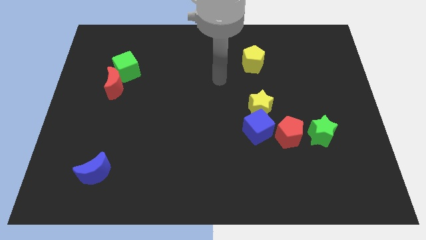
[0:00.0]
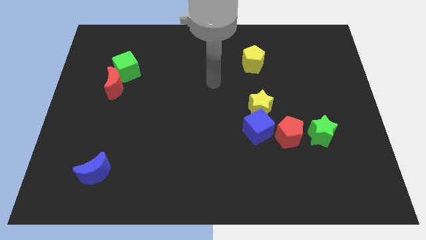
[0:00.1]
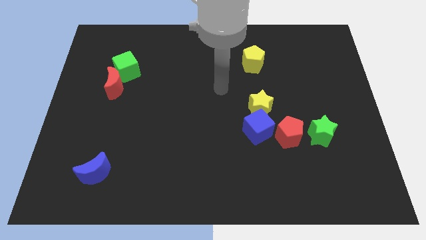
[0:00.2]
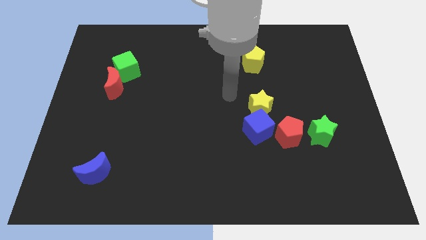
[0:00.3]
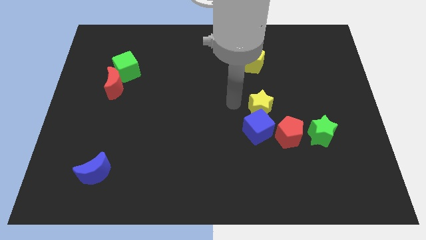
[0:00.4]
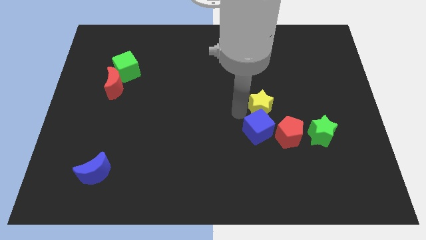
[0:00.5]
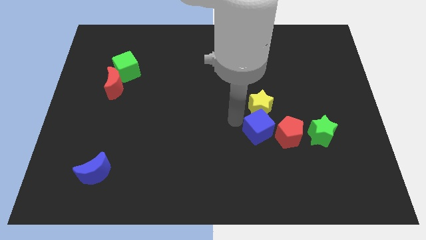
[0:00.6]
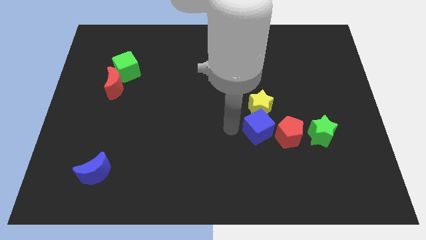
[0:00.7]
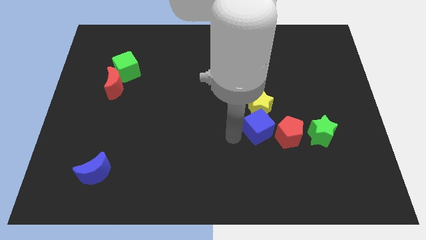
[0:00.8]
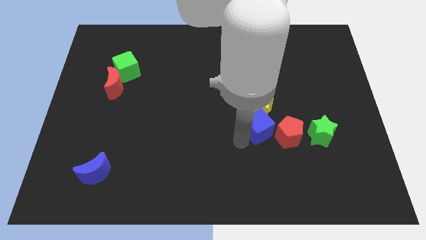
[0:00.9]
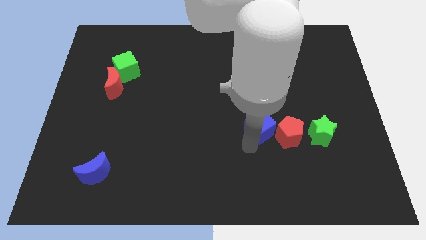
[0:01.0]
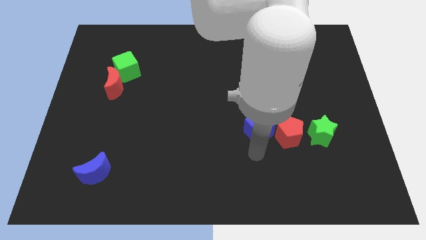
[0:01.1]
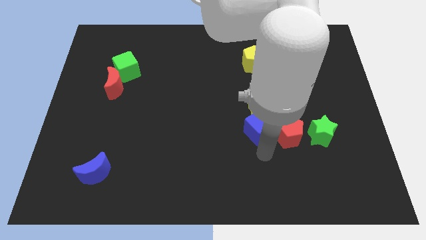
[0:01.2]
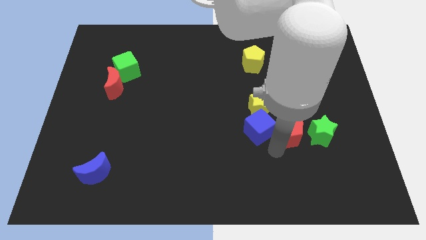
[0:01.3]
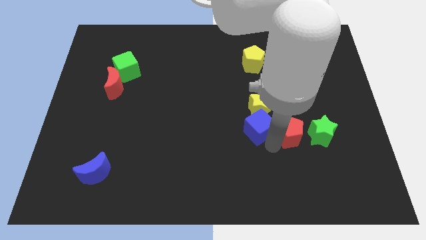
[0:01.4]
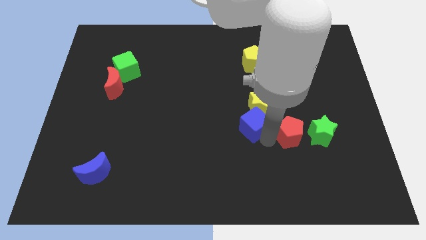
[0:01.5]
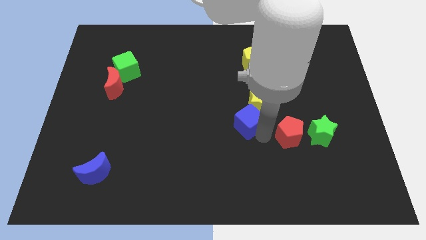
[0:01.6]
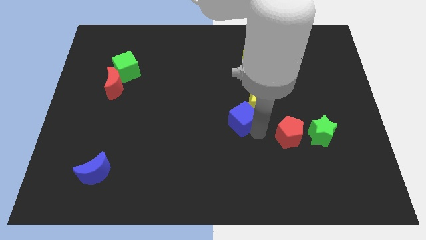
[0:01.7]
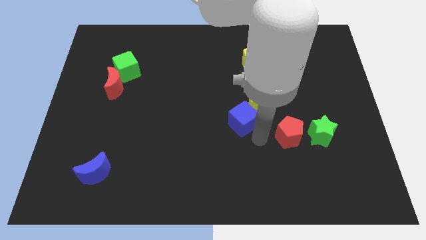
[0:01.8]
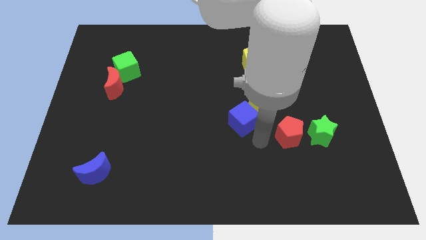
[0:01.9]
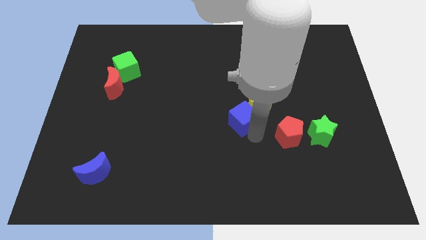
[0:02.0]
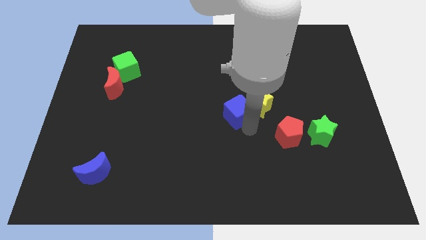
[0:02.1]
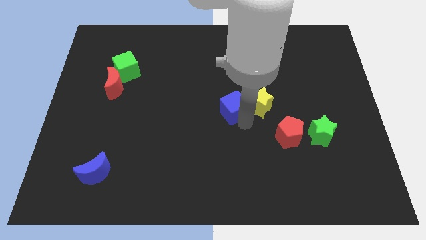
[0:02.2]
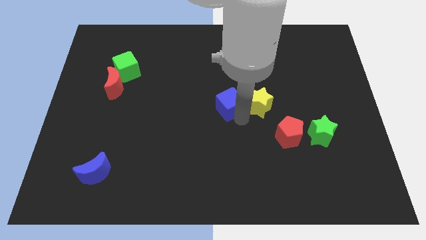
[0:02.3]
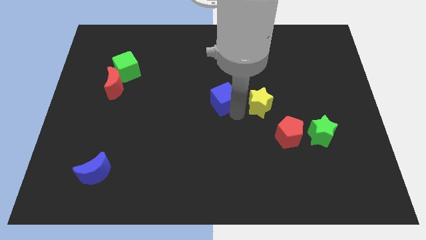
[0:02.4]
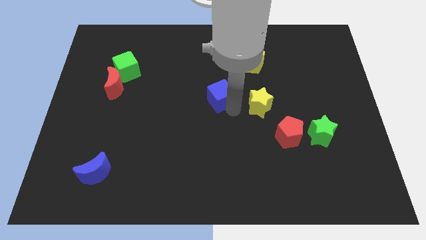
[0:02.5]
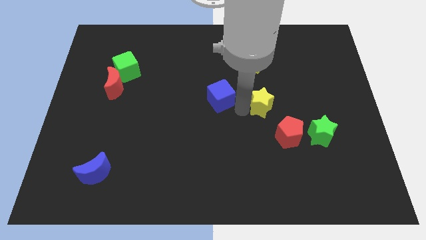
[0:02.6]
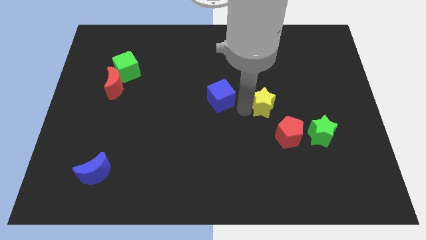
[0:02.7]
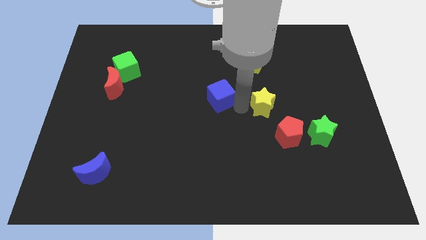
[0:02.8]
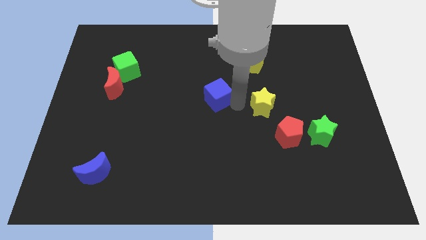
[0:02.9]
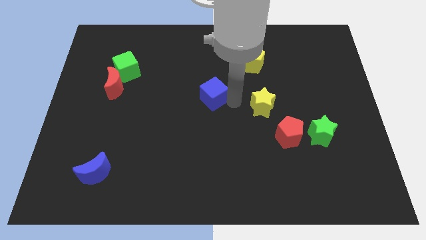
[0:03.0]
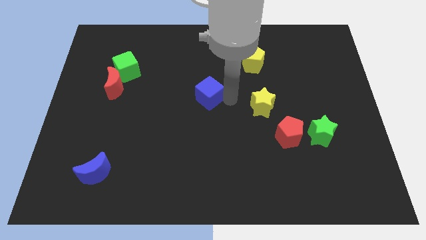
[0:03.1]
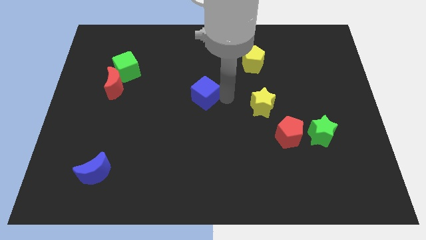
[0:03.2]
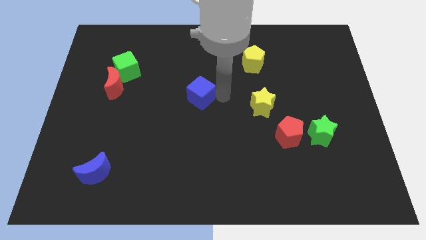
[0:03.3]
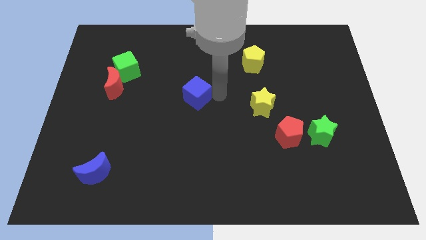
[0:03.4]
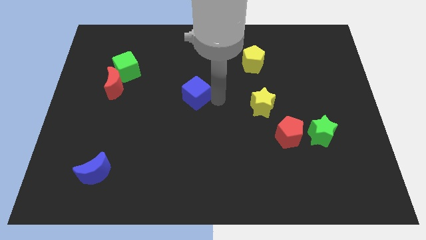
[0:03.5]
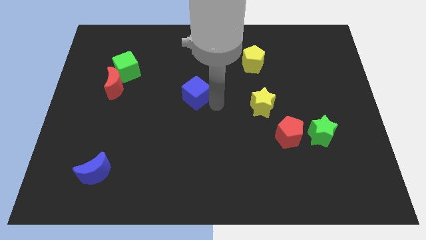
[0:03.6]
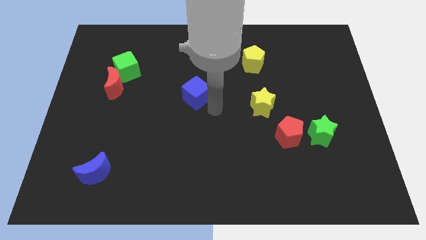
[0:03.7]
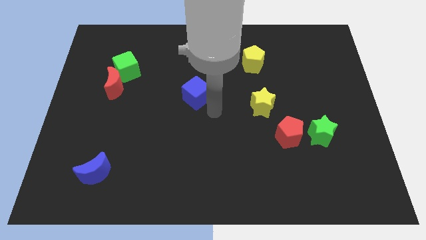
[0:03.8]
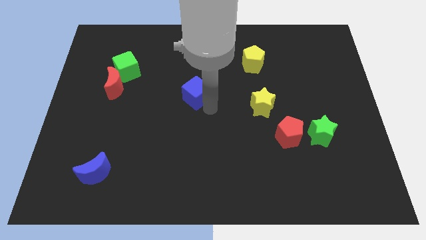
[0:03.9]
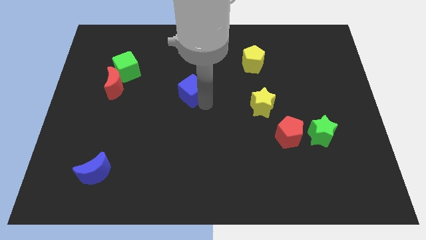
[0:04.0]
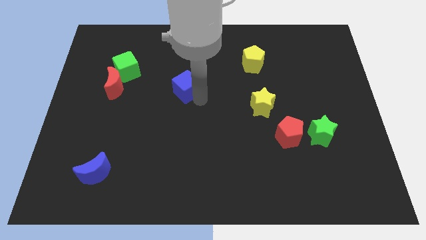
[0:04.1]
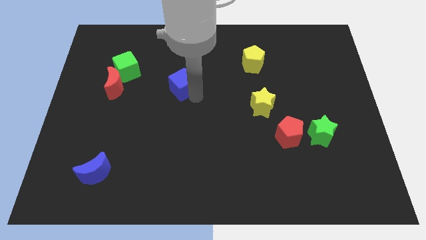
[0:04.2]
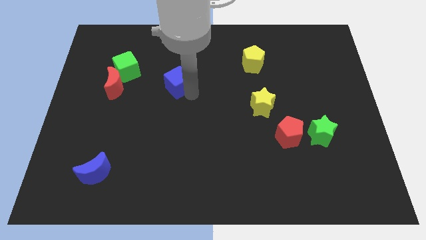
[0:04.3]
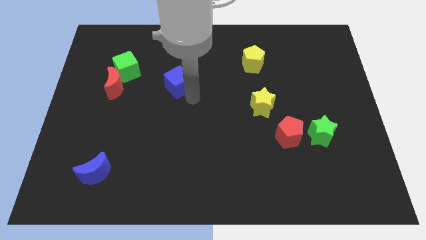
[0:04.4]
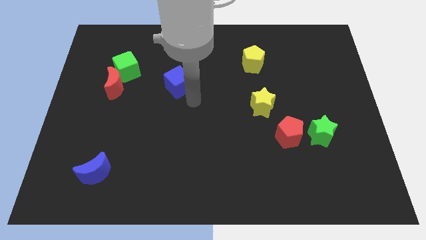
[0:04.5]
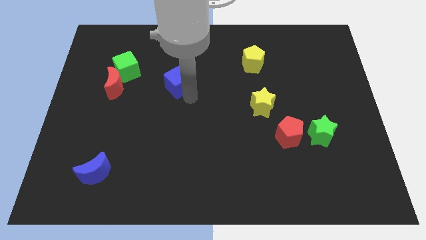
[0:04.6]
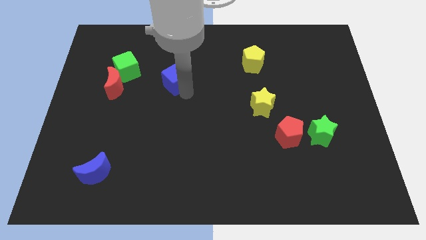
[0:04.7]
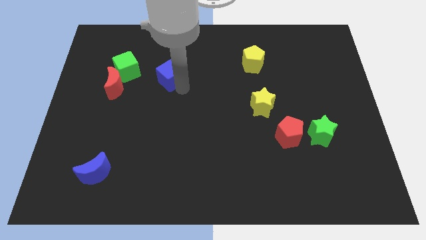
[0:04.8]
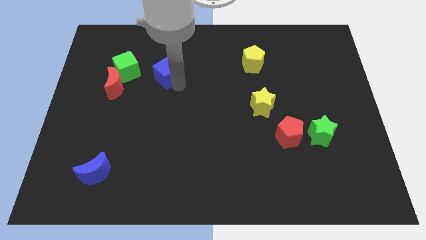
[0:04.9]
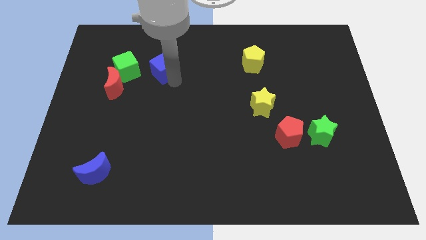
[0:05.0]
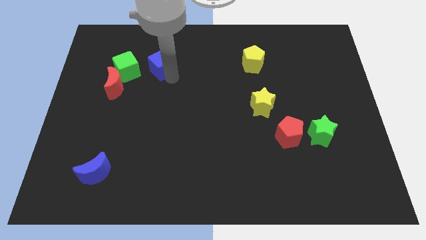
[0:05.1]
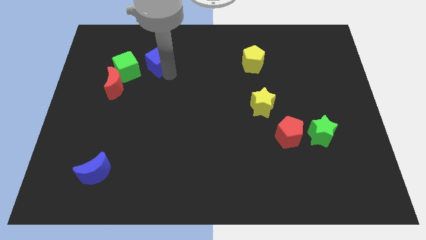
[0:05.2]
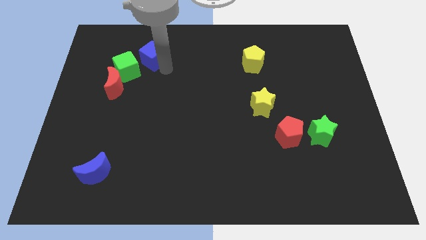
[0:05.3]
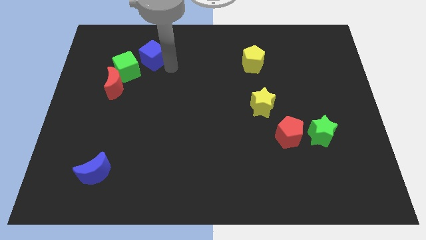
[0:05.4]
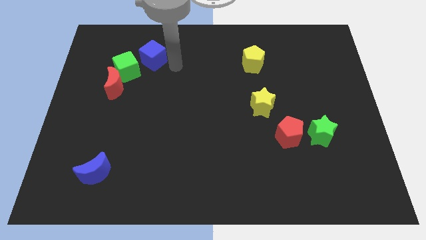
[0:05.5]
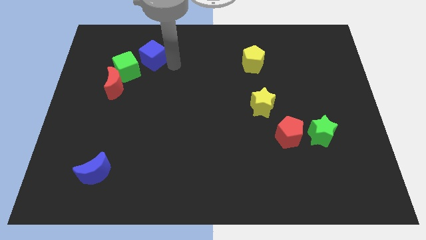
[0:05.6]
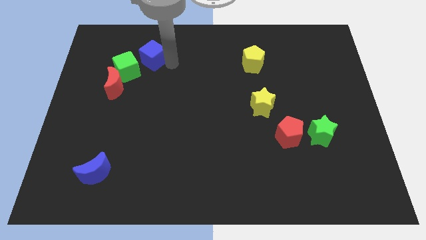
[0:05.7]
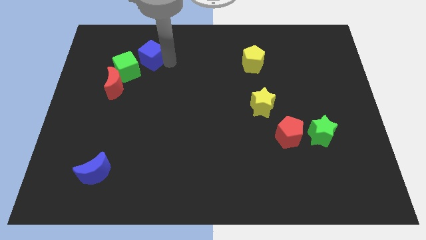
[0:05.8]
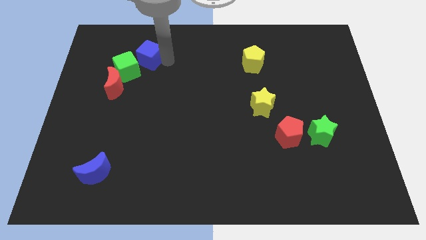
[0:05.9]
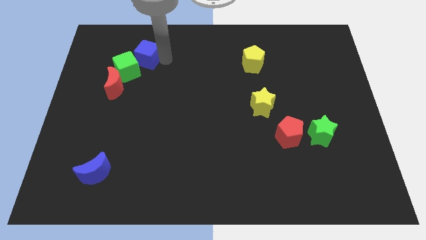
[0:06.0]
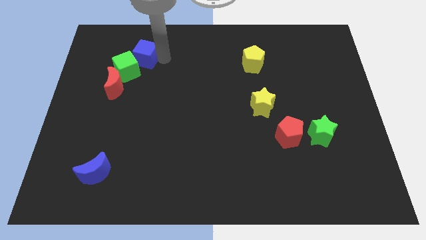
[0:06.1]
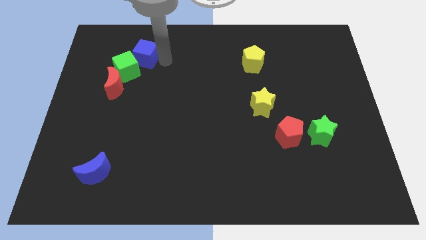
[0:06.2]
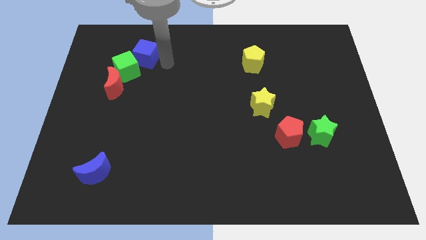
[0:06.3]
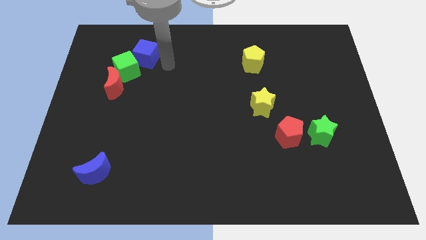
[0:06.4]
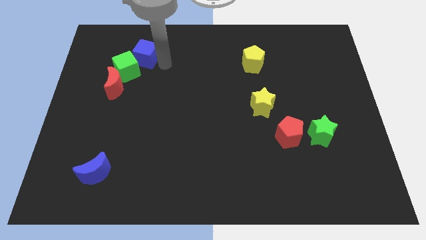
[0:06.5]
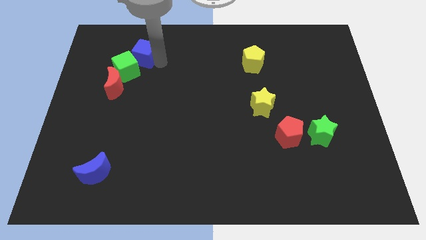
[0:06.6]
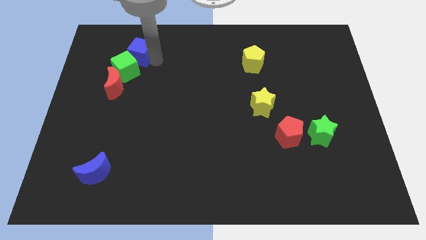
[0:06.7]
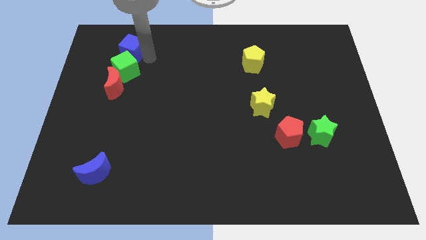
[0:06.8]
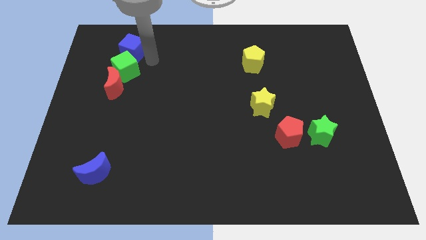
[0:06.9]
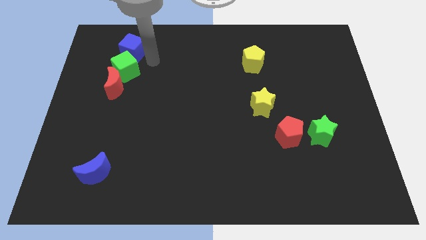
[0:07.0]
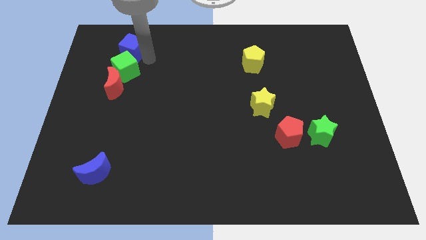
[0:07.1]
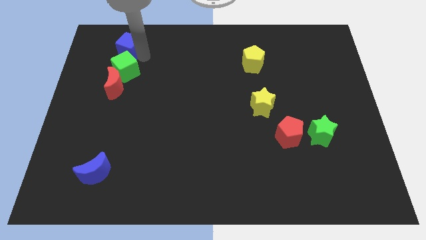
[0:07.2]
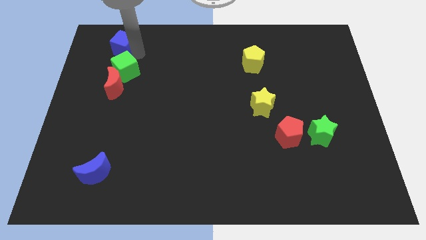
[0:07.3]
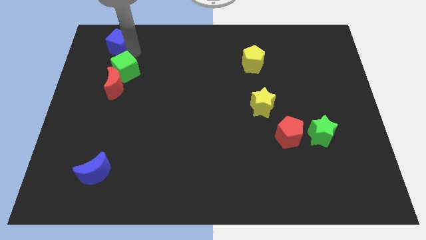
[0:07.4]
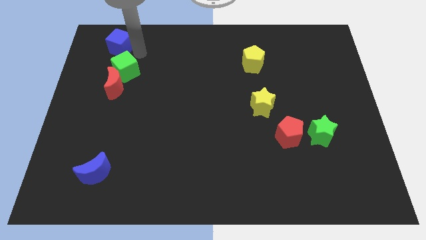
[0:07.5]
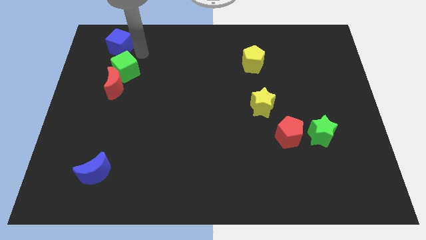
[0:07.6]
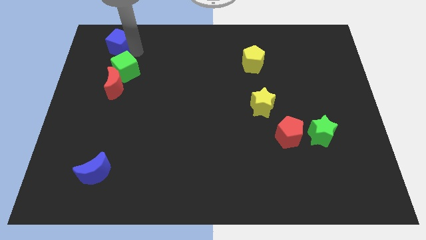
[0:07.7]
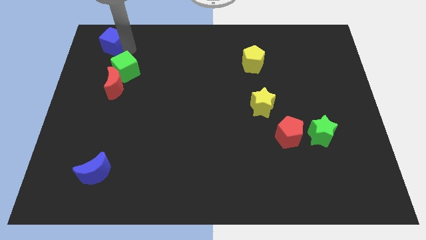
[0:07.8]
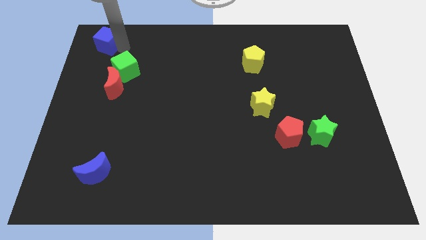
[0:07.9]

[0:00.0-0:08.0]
put the blue cube to the top left
